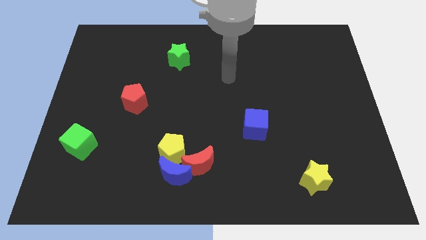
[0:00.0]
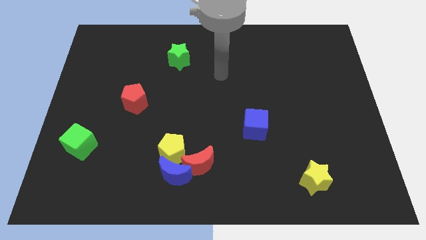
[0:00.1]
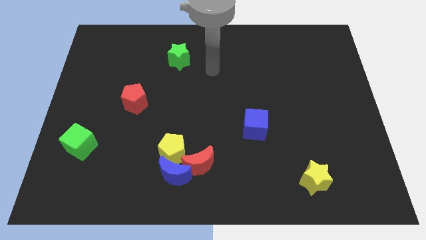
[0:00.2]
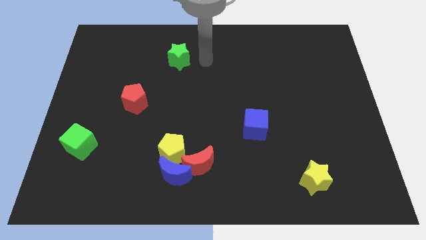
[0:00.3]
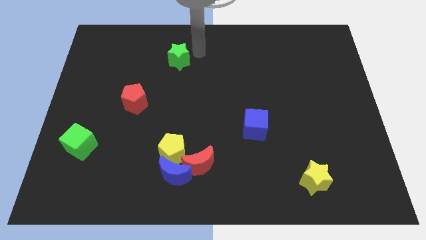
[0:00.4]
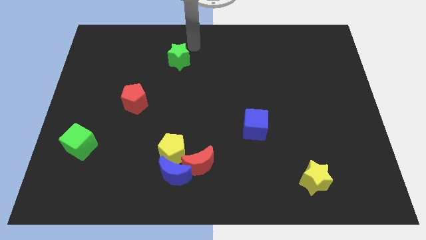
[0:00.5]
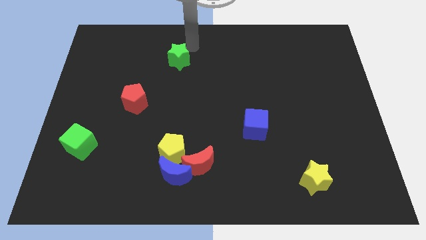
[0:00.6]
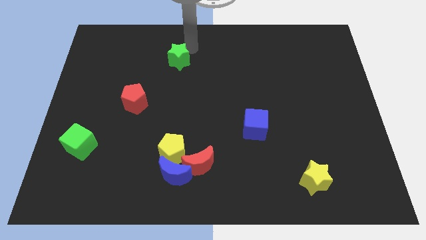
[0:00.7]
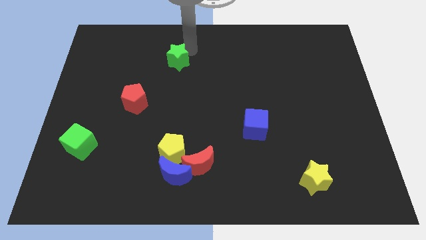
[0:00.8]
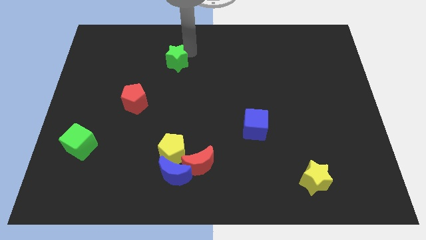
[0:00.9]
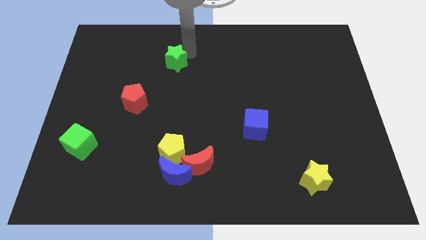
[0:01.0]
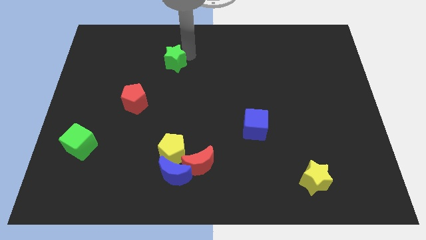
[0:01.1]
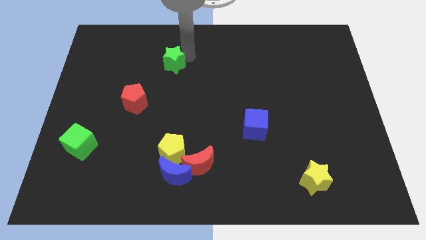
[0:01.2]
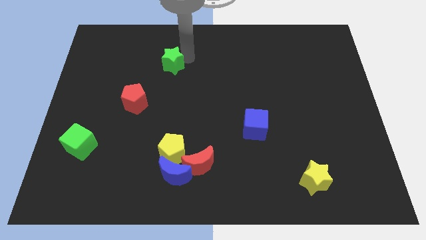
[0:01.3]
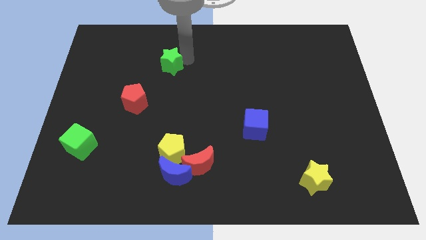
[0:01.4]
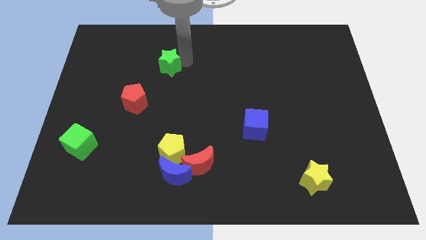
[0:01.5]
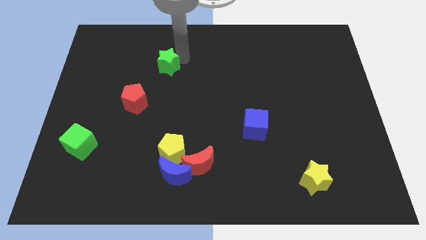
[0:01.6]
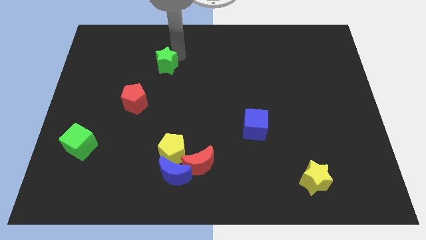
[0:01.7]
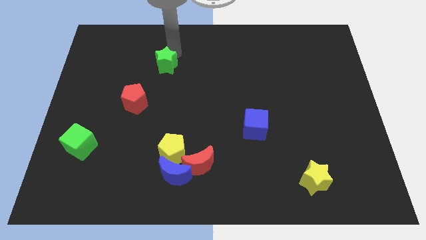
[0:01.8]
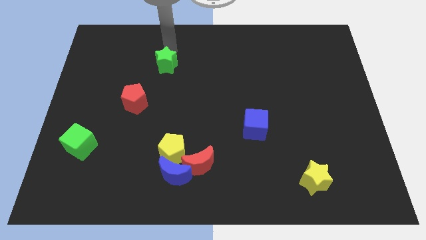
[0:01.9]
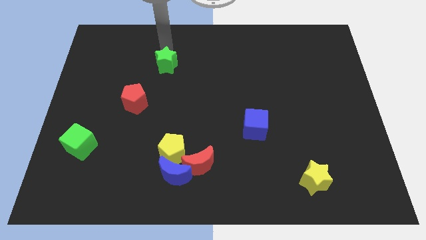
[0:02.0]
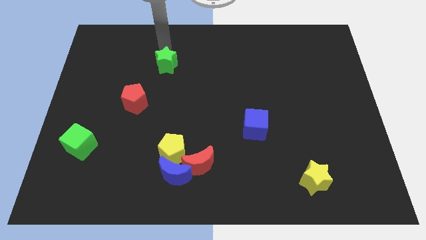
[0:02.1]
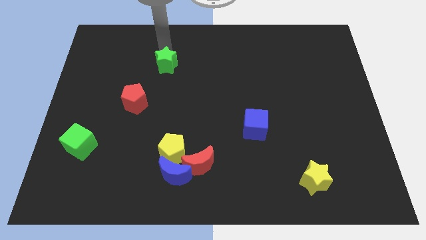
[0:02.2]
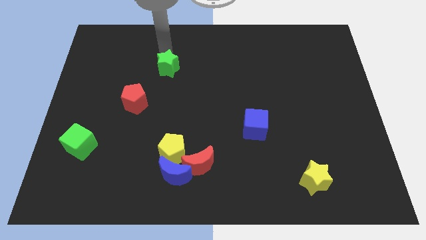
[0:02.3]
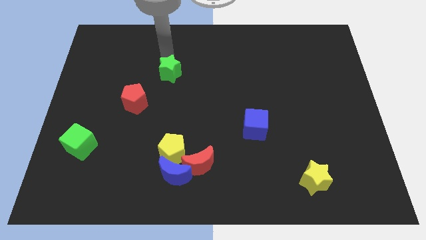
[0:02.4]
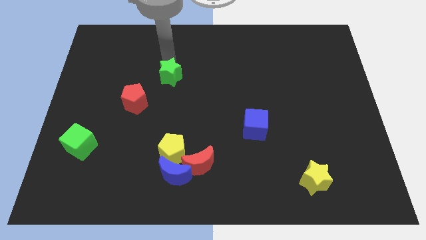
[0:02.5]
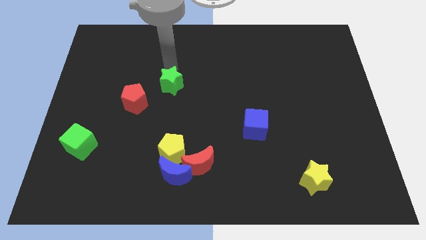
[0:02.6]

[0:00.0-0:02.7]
slightly slide the green star downwards

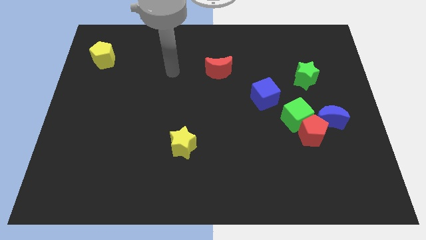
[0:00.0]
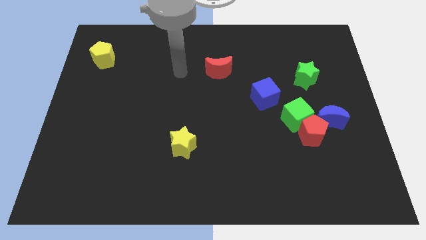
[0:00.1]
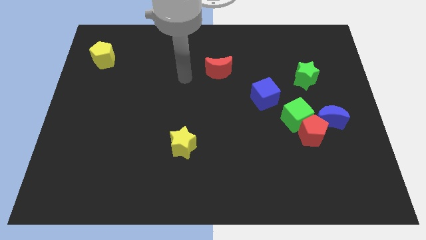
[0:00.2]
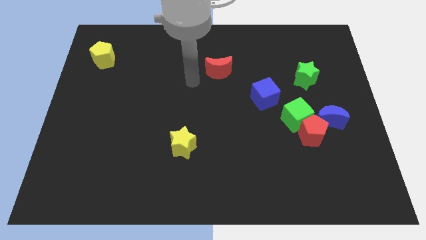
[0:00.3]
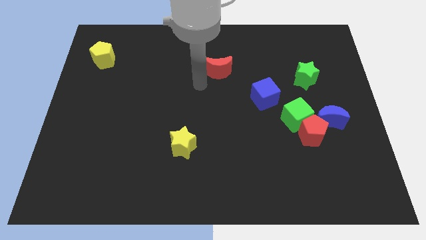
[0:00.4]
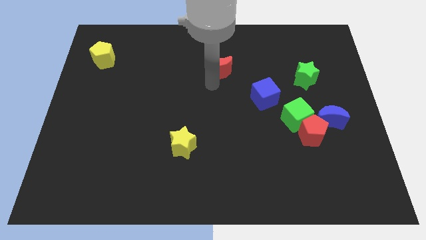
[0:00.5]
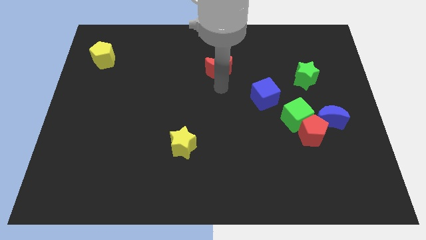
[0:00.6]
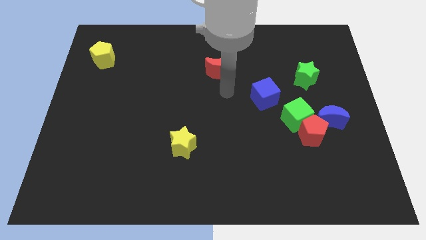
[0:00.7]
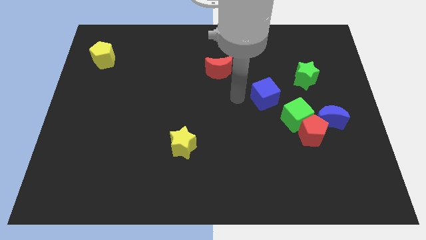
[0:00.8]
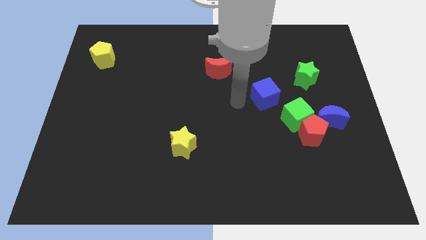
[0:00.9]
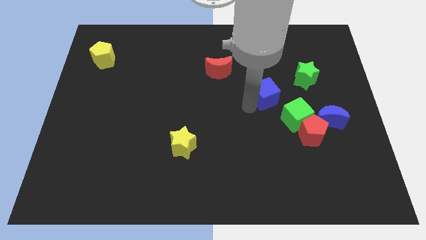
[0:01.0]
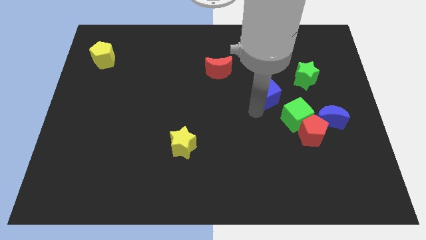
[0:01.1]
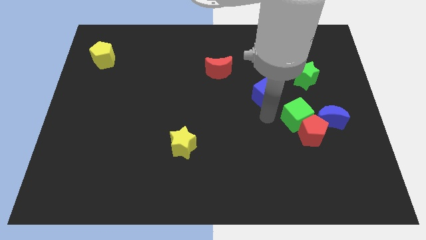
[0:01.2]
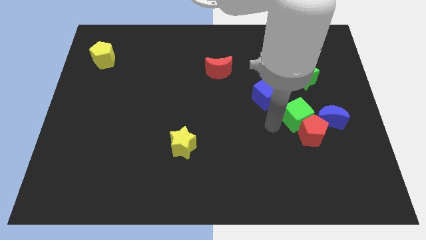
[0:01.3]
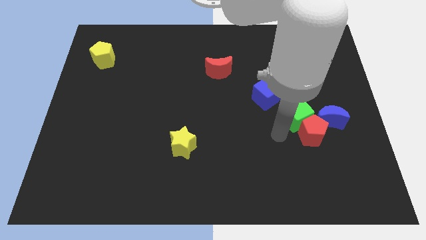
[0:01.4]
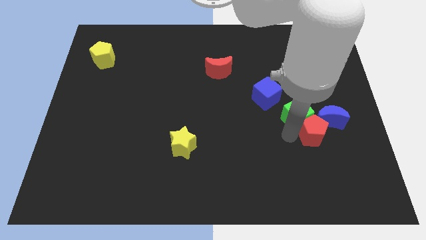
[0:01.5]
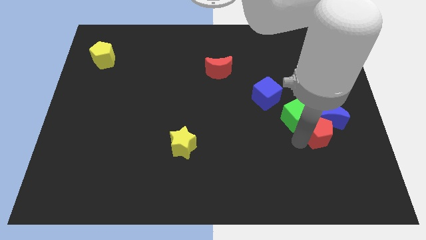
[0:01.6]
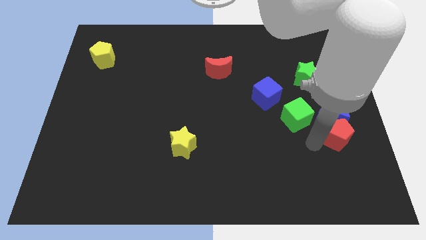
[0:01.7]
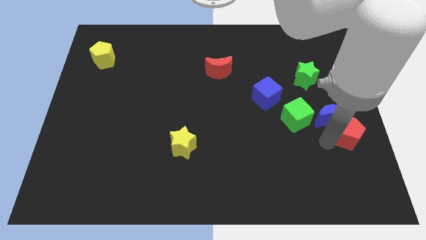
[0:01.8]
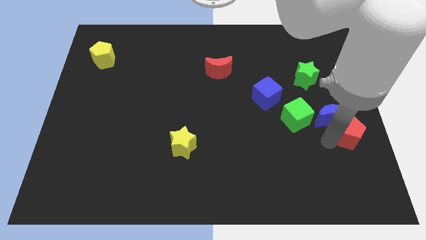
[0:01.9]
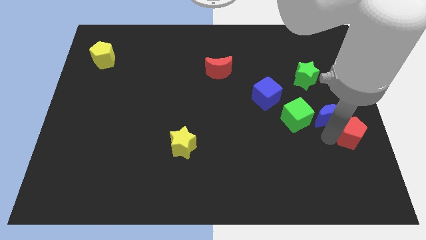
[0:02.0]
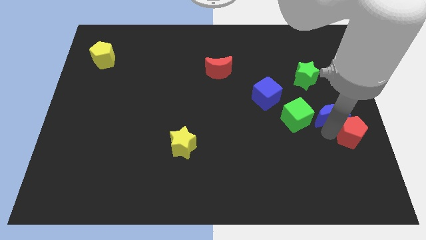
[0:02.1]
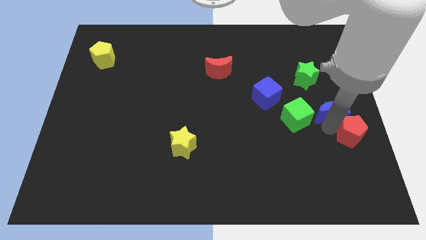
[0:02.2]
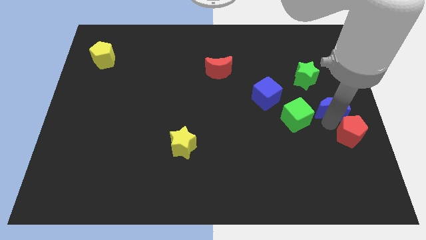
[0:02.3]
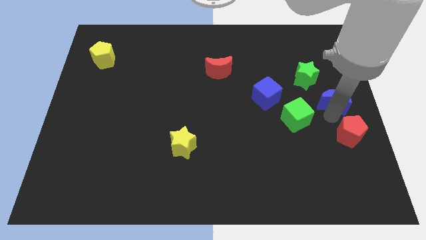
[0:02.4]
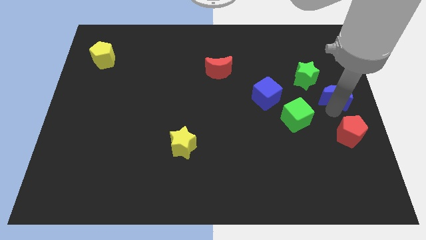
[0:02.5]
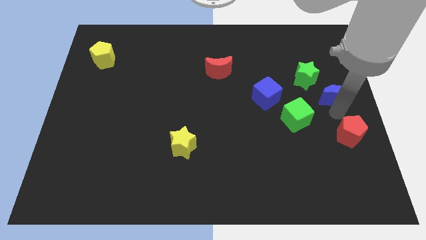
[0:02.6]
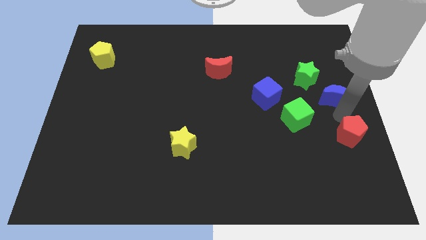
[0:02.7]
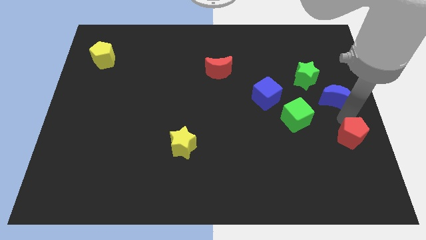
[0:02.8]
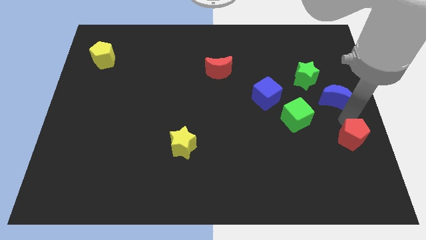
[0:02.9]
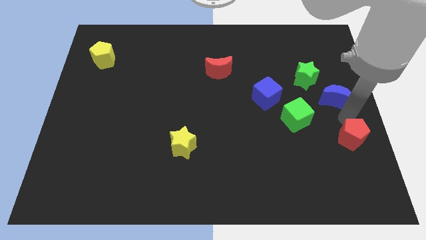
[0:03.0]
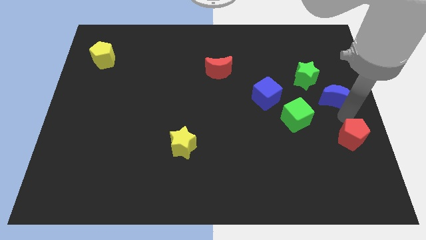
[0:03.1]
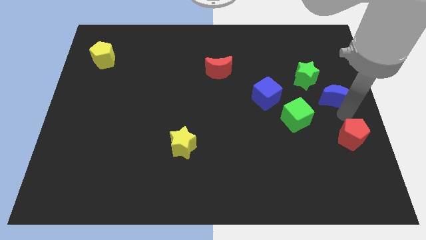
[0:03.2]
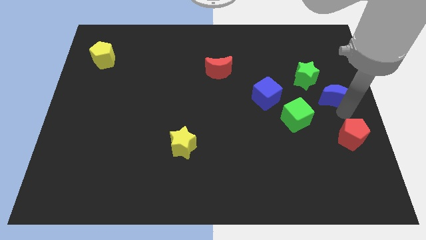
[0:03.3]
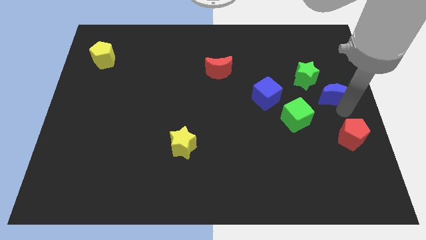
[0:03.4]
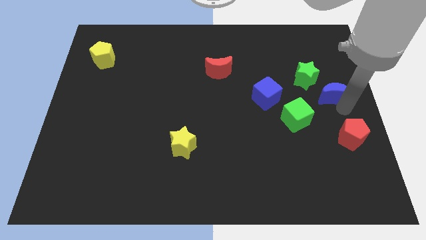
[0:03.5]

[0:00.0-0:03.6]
push the blue moon somewhat up

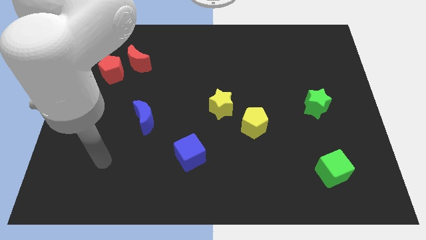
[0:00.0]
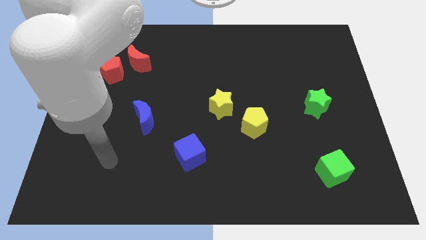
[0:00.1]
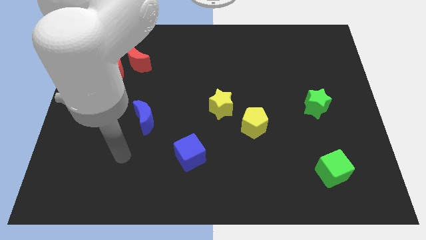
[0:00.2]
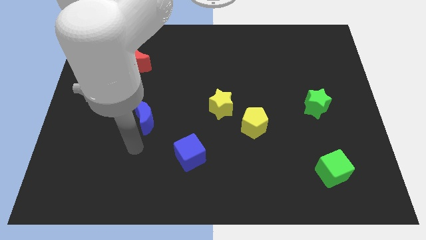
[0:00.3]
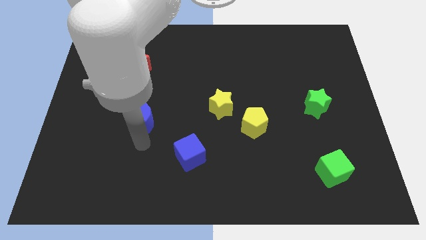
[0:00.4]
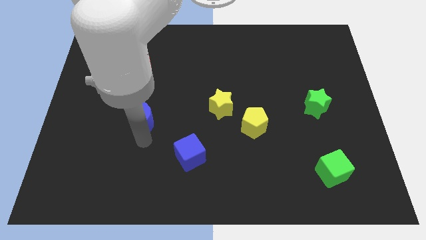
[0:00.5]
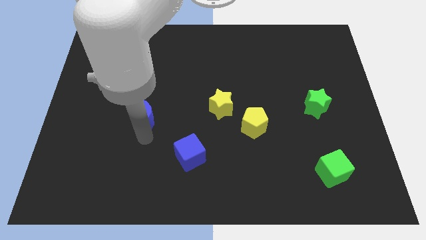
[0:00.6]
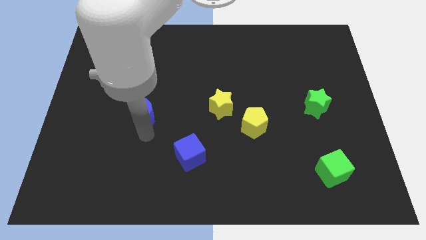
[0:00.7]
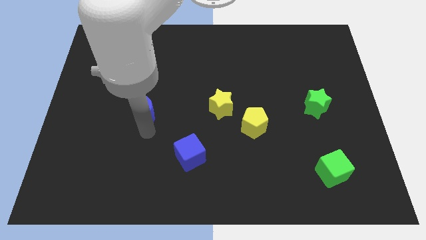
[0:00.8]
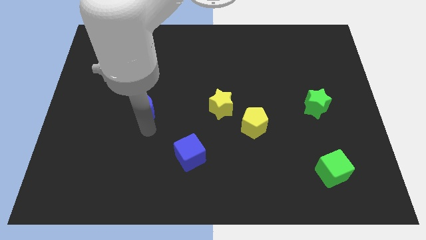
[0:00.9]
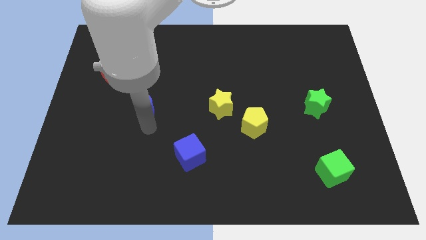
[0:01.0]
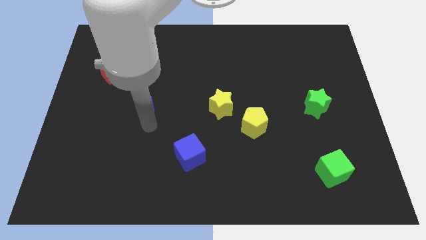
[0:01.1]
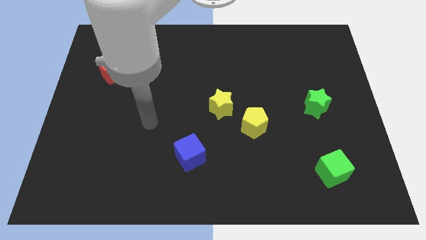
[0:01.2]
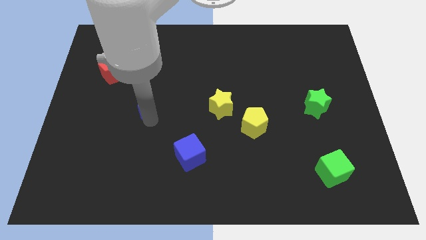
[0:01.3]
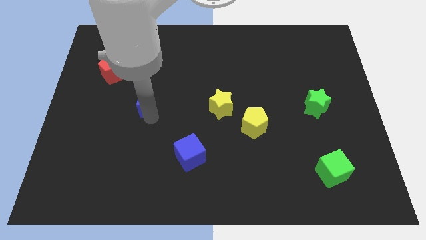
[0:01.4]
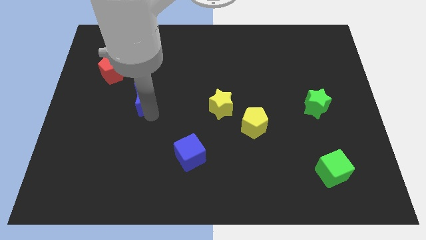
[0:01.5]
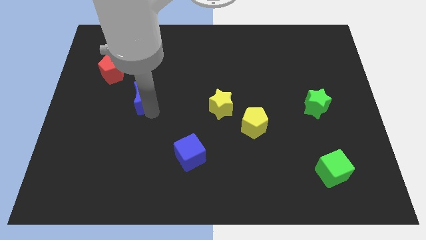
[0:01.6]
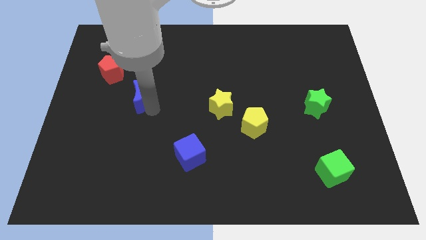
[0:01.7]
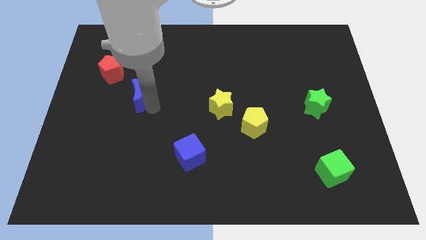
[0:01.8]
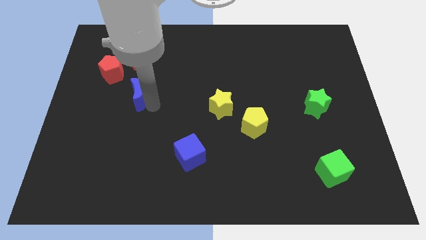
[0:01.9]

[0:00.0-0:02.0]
push the blue moon up a little
